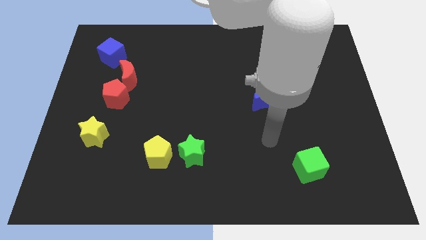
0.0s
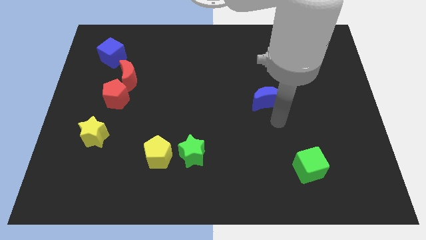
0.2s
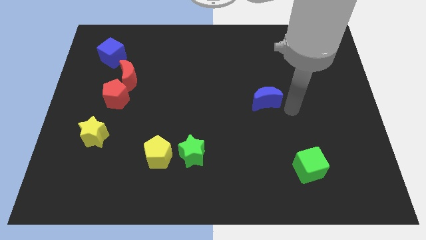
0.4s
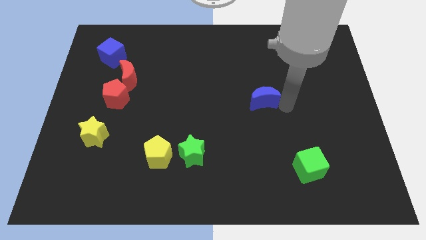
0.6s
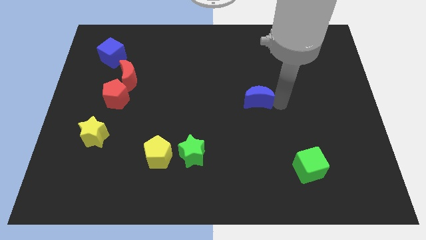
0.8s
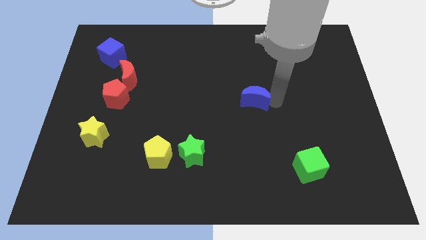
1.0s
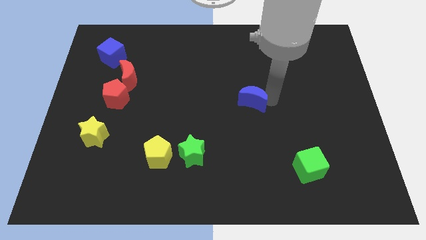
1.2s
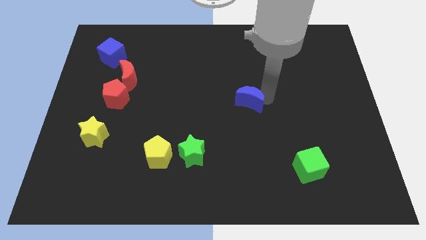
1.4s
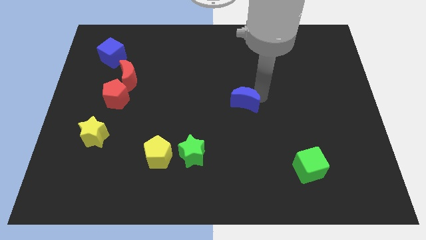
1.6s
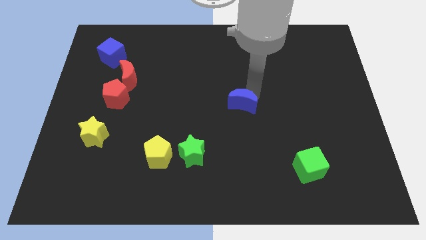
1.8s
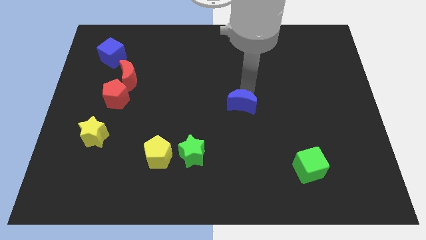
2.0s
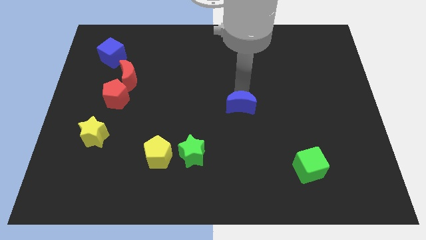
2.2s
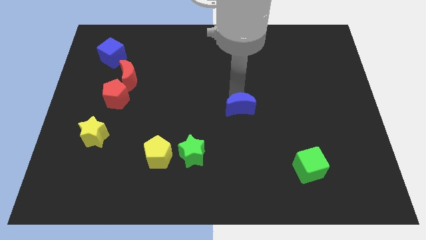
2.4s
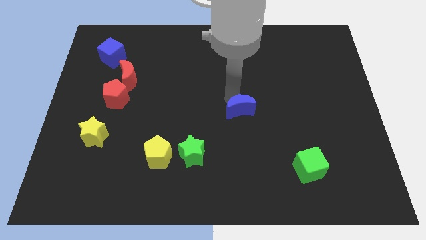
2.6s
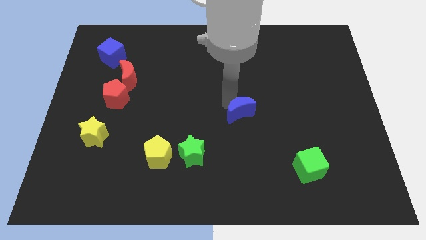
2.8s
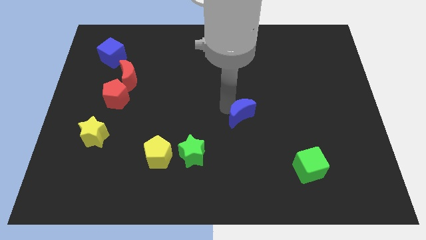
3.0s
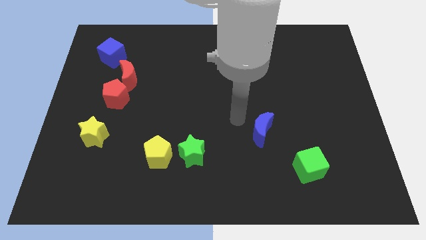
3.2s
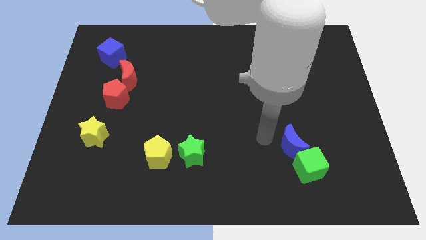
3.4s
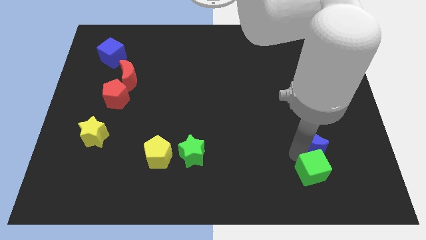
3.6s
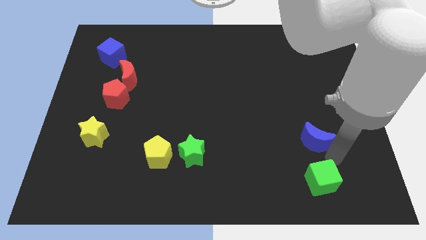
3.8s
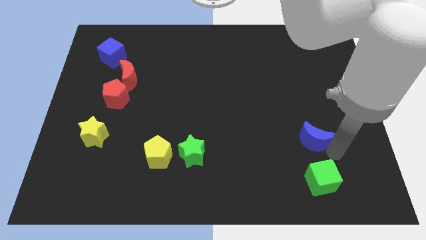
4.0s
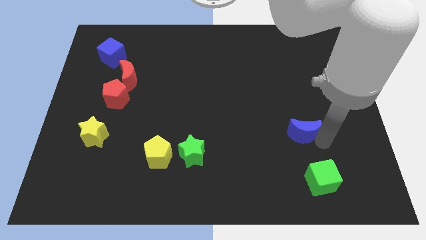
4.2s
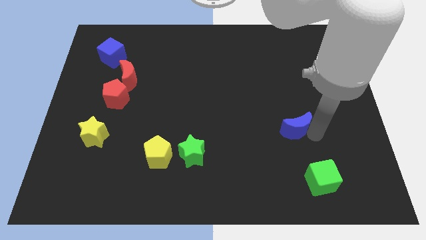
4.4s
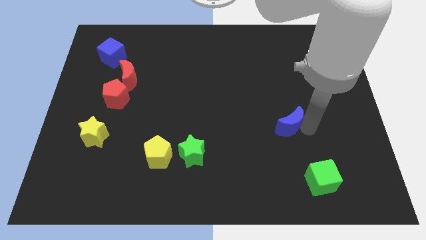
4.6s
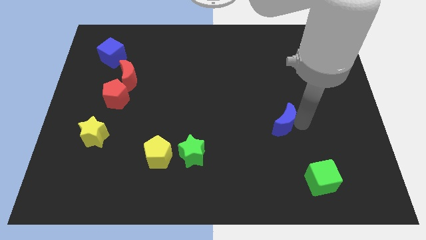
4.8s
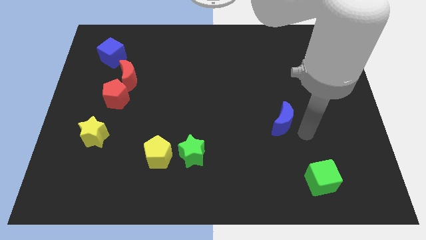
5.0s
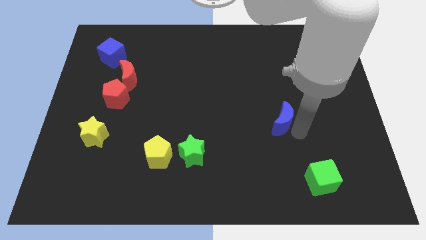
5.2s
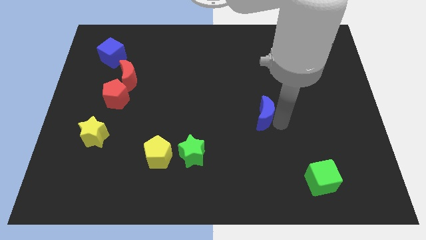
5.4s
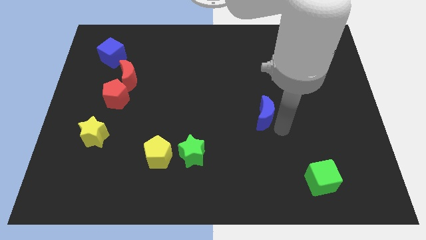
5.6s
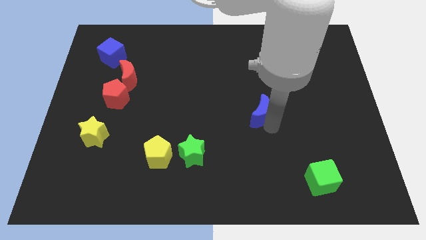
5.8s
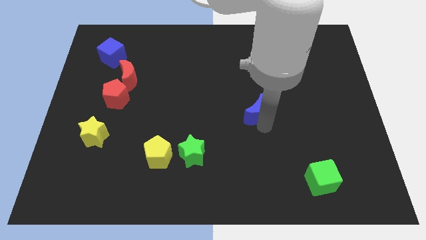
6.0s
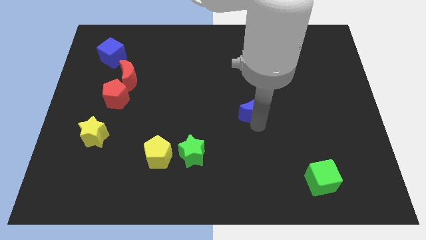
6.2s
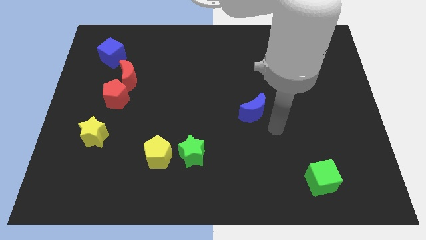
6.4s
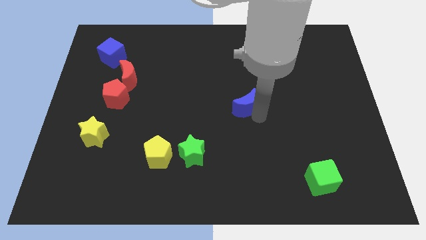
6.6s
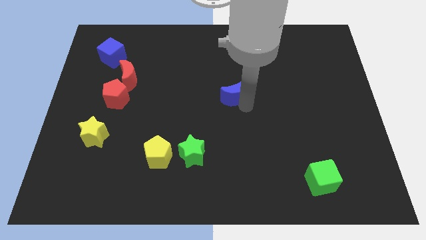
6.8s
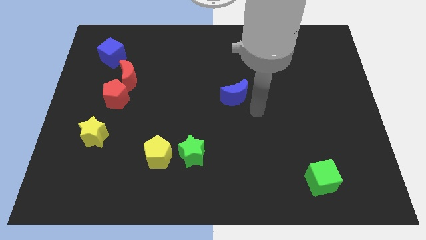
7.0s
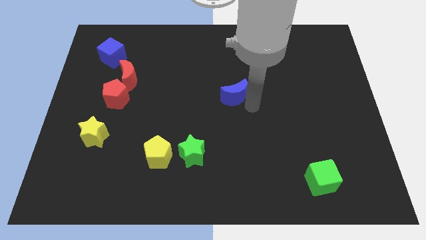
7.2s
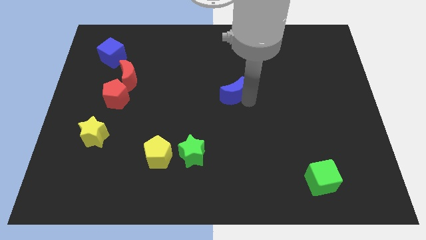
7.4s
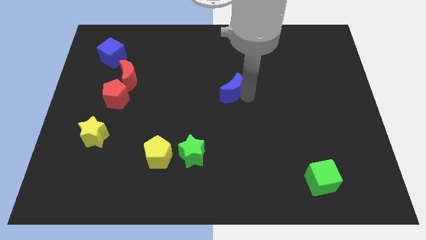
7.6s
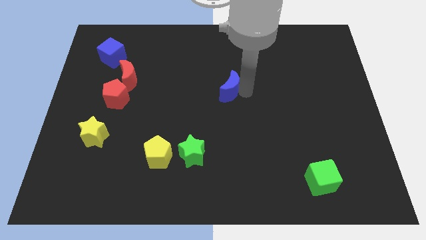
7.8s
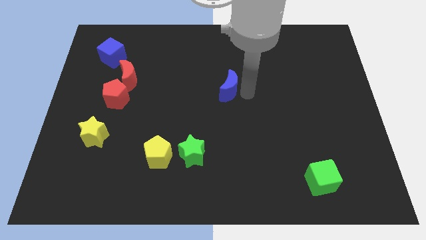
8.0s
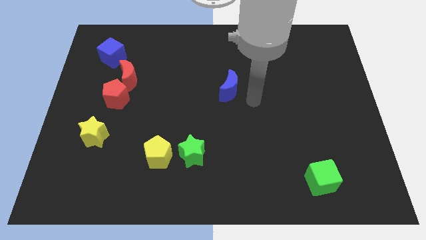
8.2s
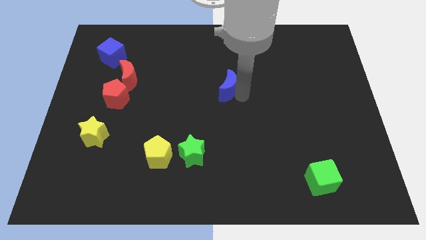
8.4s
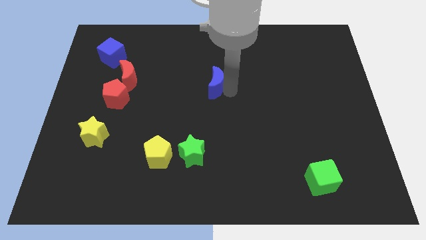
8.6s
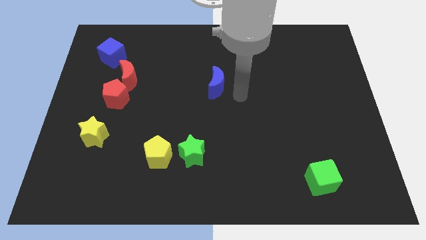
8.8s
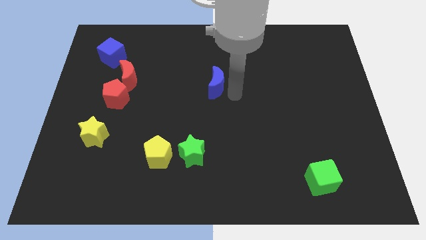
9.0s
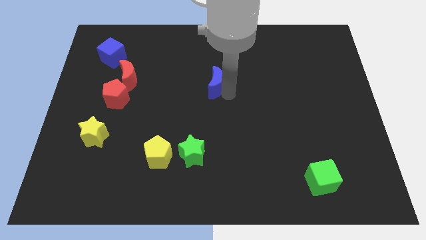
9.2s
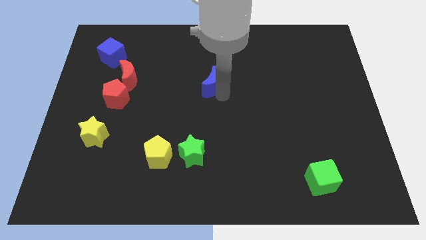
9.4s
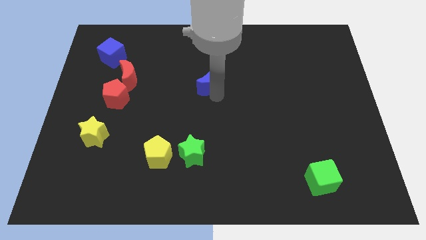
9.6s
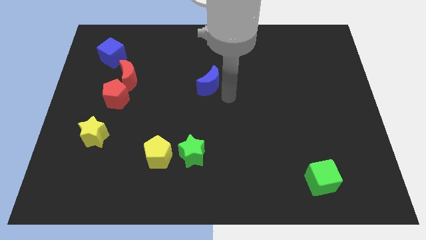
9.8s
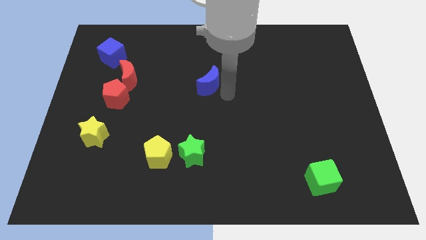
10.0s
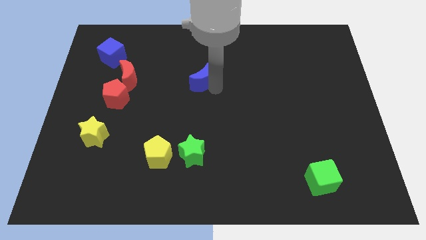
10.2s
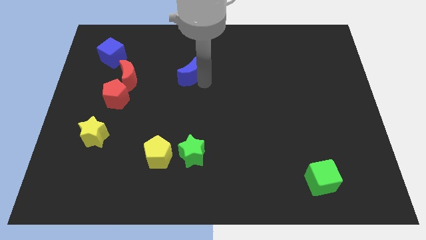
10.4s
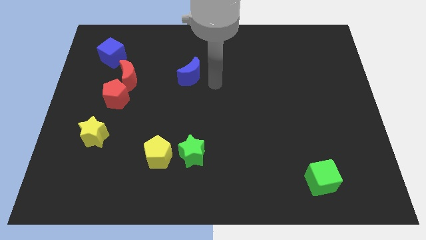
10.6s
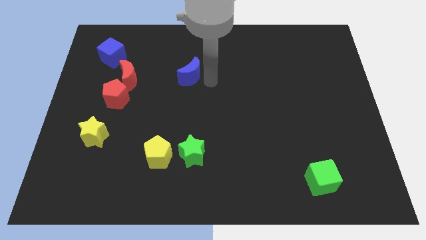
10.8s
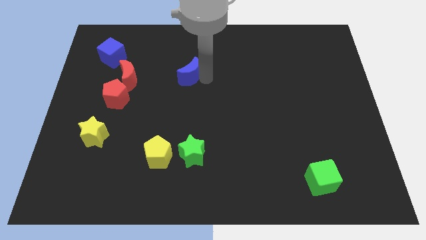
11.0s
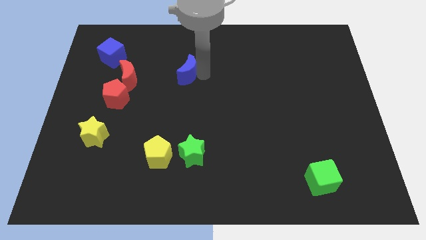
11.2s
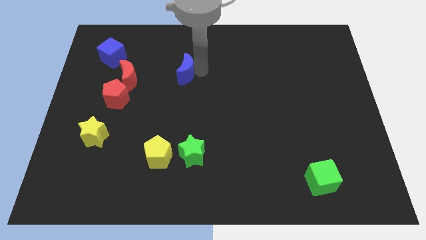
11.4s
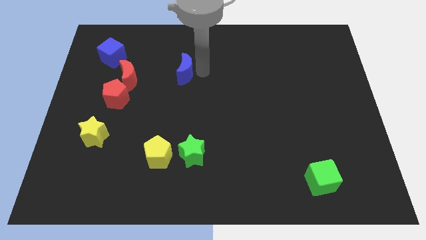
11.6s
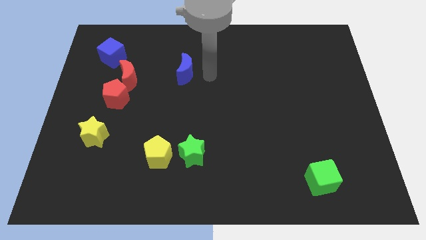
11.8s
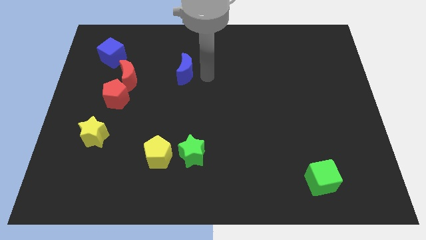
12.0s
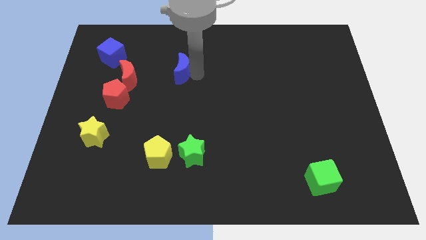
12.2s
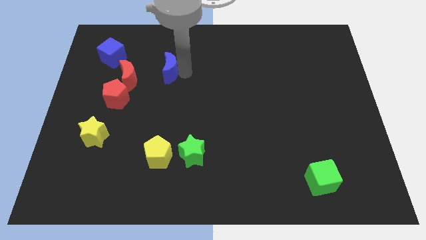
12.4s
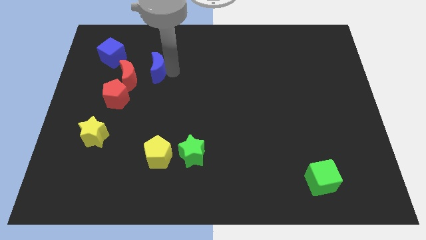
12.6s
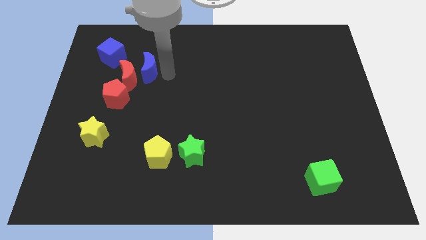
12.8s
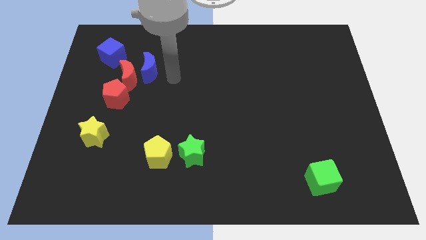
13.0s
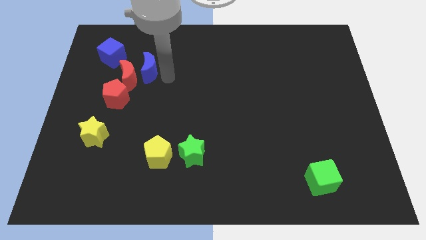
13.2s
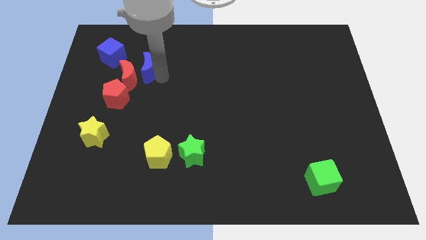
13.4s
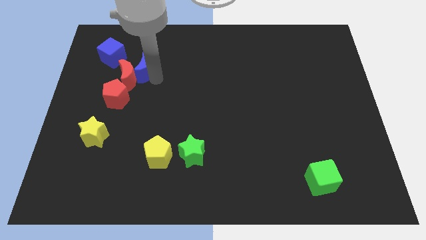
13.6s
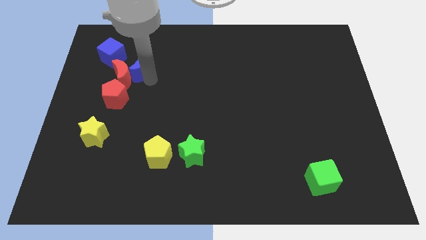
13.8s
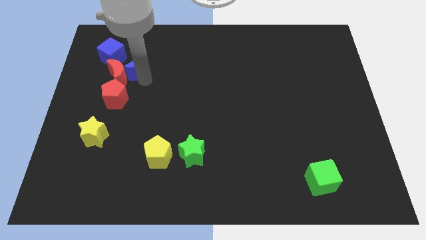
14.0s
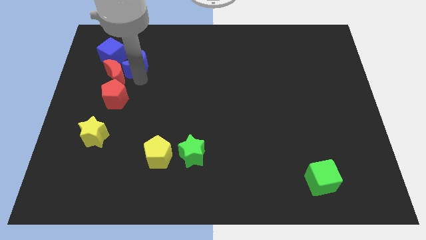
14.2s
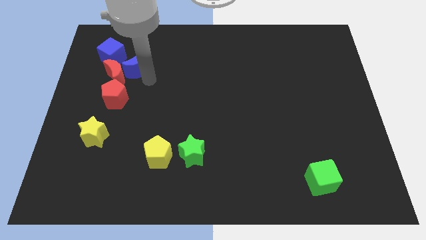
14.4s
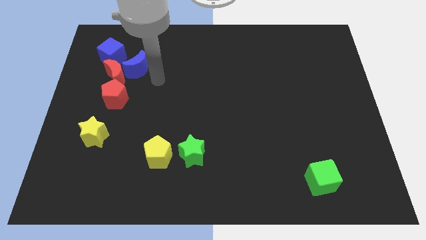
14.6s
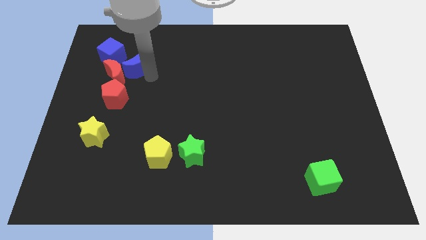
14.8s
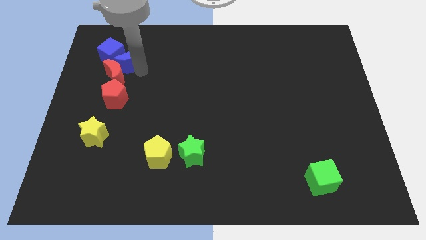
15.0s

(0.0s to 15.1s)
put the blue moon close to the blue cube
